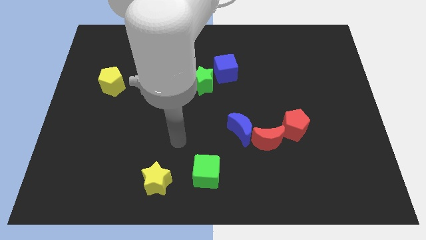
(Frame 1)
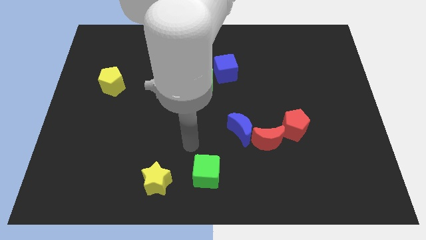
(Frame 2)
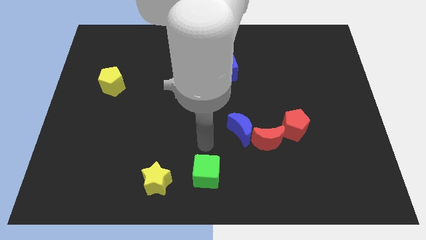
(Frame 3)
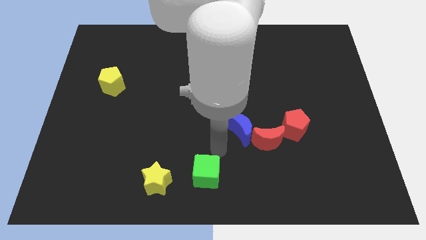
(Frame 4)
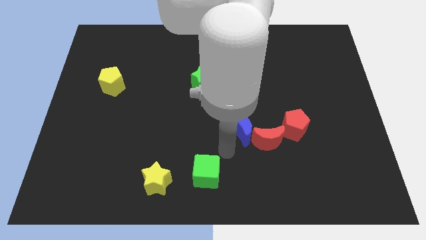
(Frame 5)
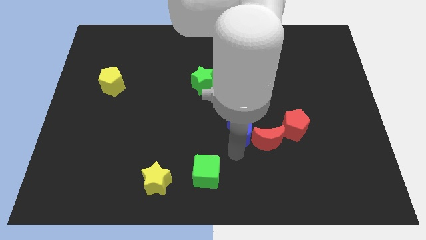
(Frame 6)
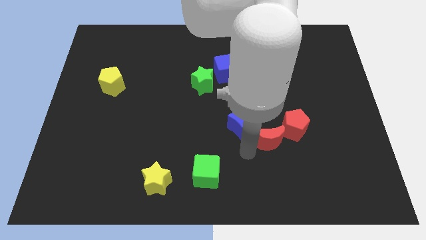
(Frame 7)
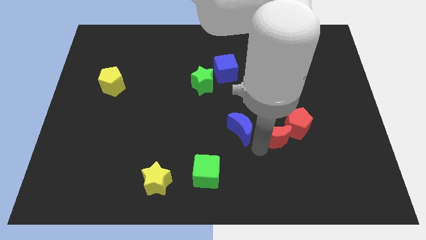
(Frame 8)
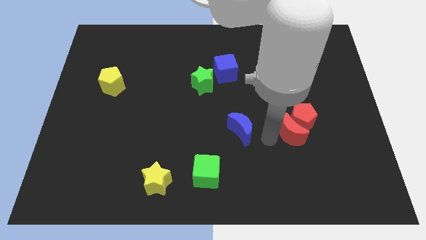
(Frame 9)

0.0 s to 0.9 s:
pull the blue moon apart from the red moon

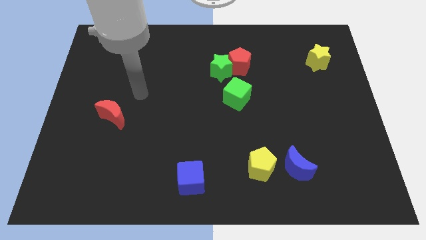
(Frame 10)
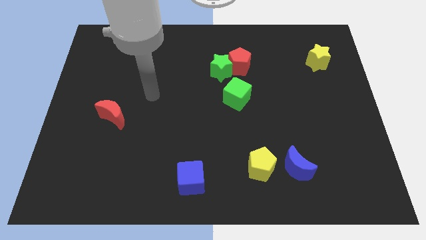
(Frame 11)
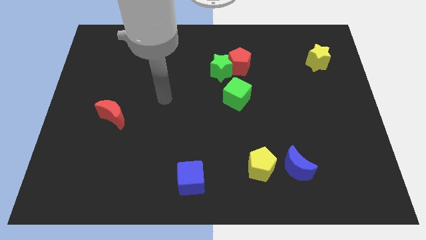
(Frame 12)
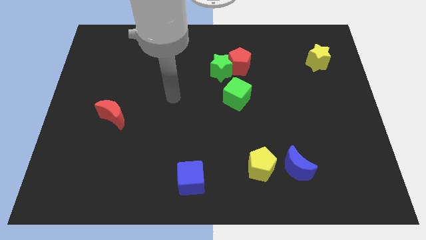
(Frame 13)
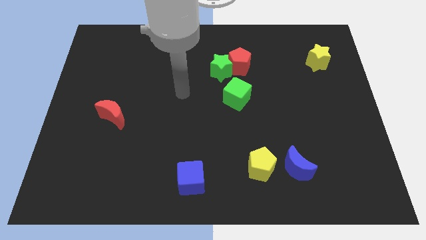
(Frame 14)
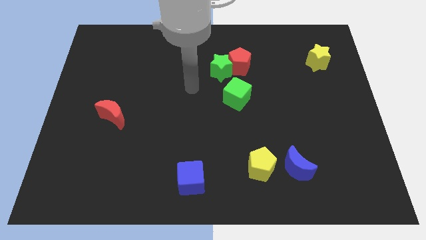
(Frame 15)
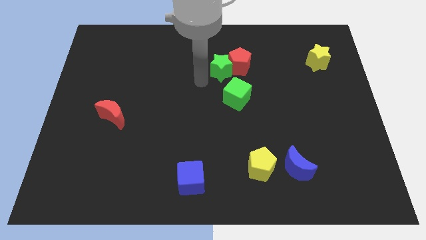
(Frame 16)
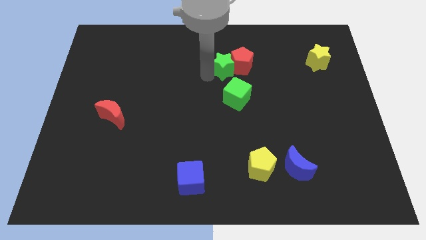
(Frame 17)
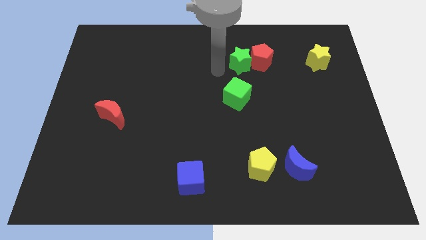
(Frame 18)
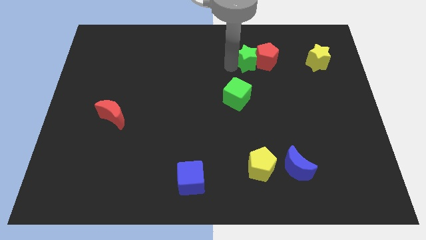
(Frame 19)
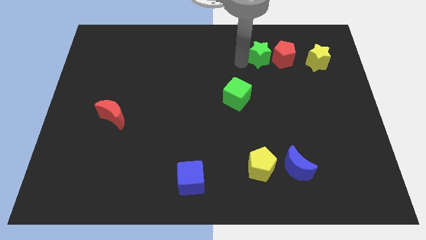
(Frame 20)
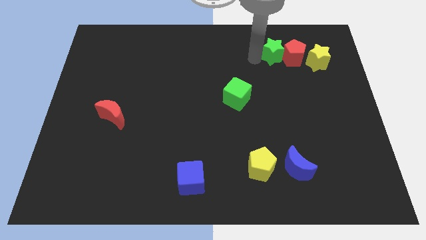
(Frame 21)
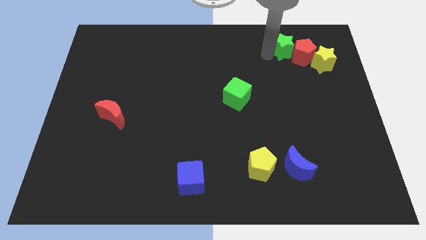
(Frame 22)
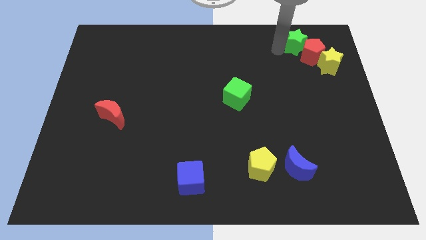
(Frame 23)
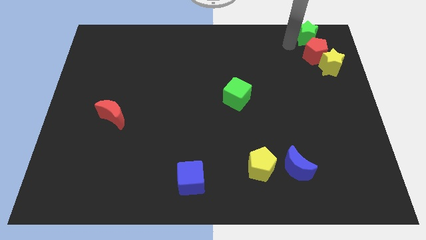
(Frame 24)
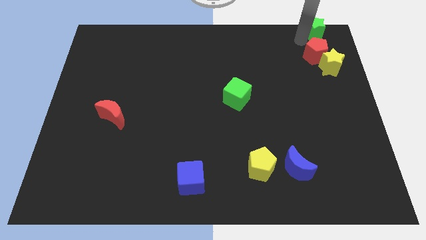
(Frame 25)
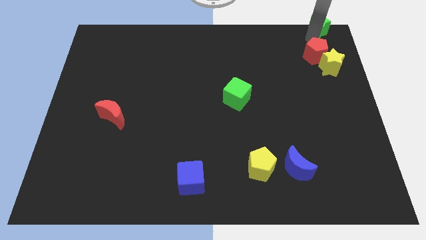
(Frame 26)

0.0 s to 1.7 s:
separate the red pentagon from the green star

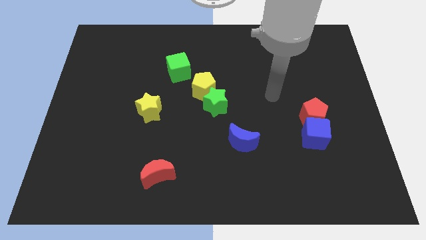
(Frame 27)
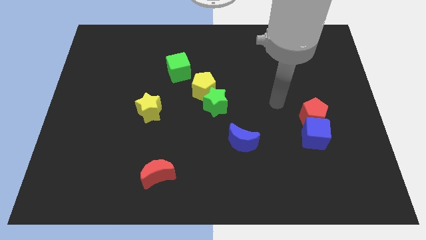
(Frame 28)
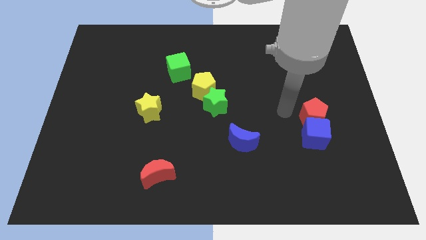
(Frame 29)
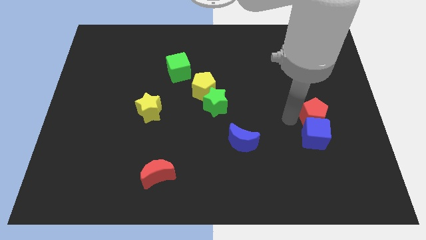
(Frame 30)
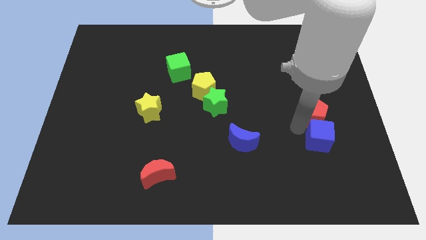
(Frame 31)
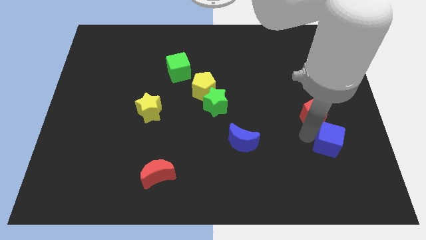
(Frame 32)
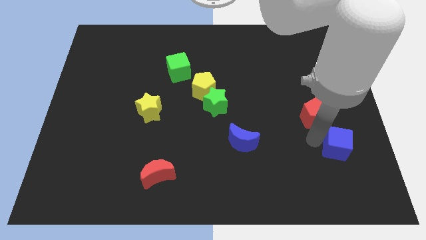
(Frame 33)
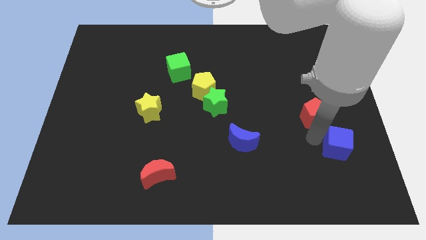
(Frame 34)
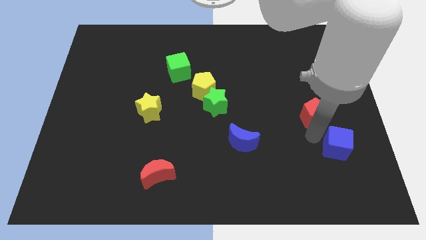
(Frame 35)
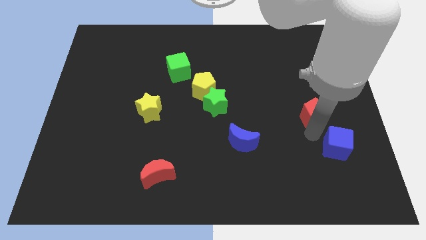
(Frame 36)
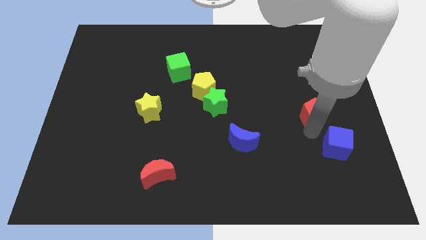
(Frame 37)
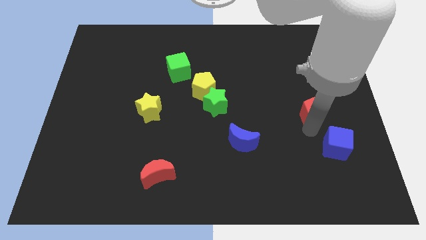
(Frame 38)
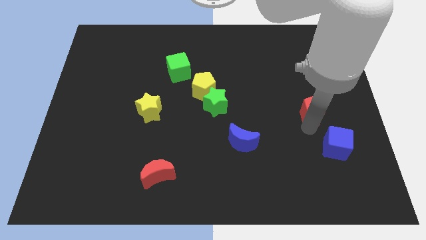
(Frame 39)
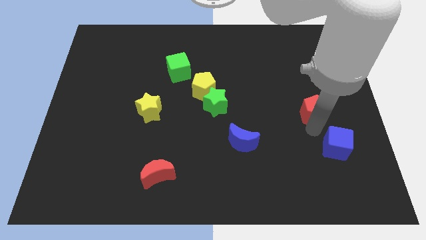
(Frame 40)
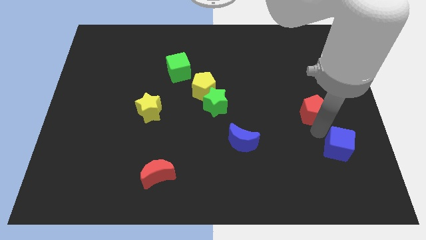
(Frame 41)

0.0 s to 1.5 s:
separate the red pentagon from the blue cube

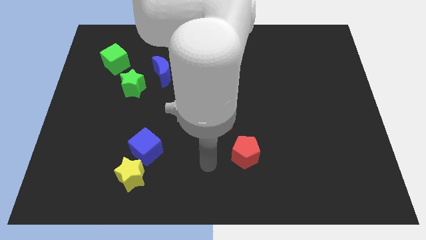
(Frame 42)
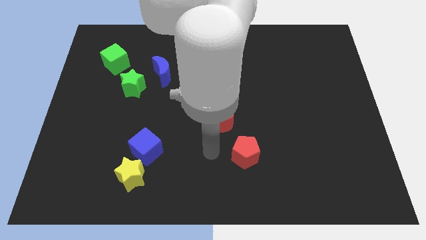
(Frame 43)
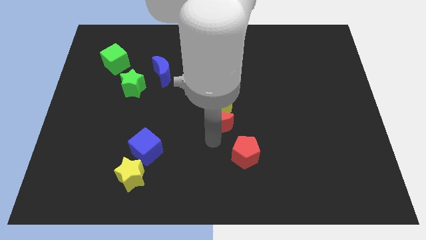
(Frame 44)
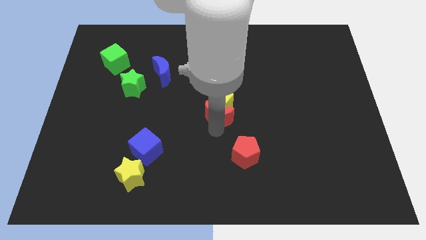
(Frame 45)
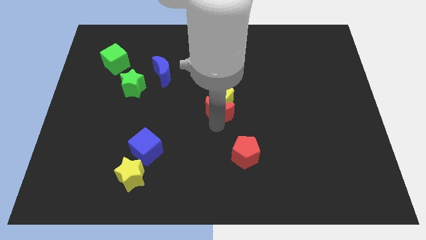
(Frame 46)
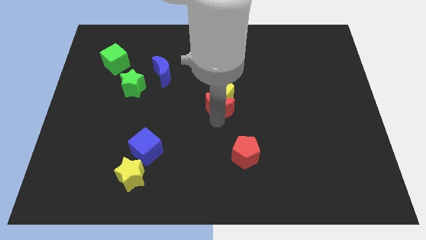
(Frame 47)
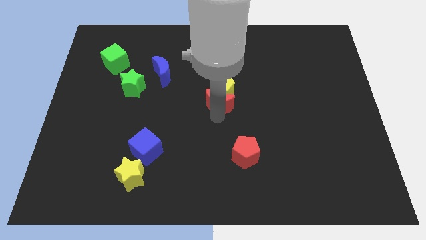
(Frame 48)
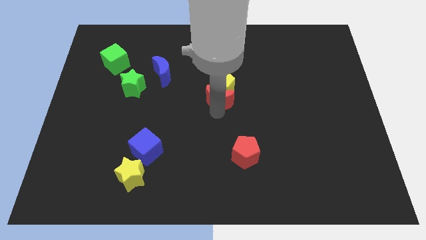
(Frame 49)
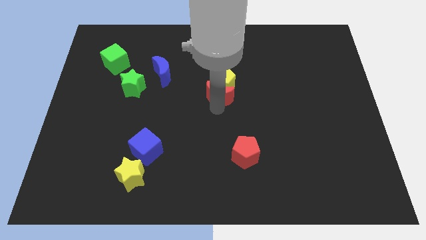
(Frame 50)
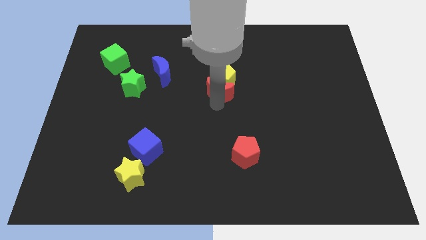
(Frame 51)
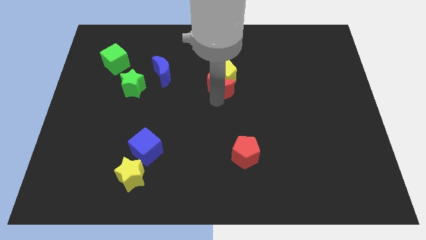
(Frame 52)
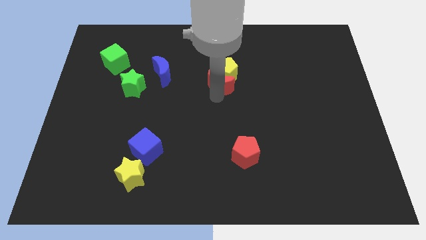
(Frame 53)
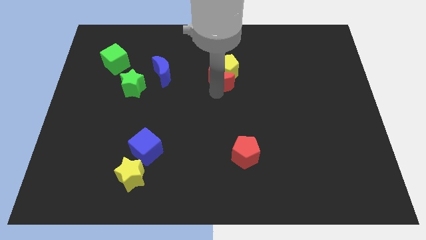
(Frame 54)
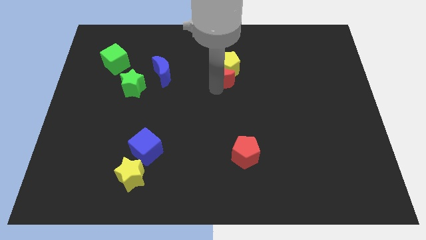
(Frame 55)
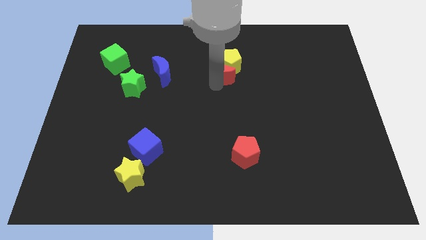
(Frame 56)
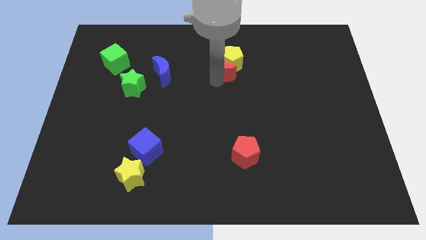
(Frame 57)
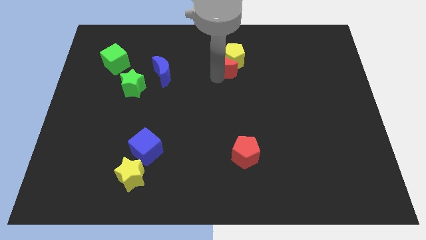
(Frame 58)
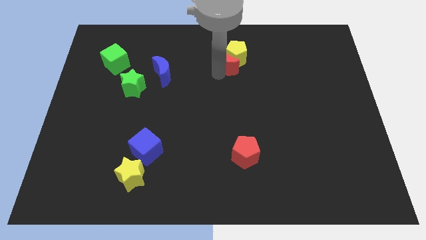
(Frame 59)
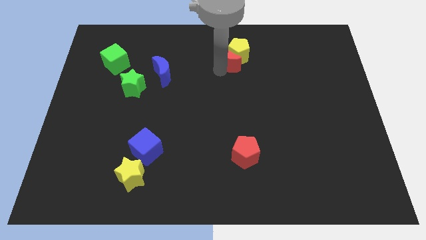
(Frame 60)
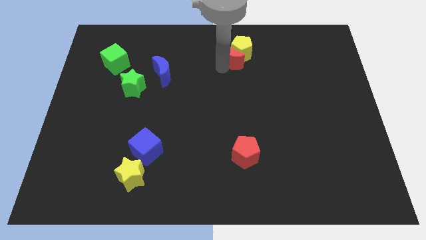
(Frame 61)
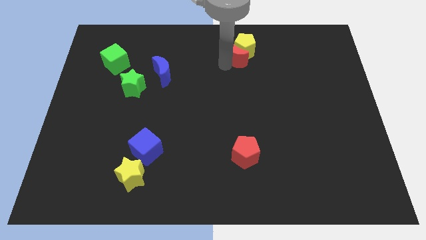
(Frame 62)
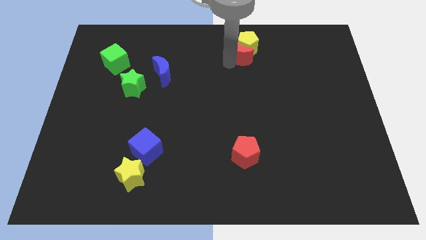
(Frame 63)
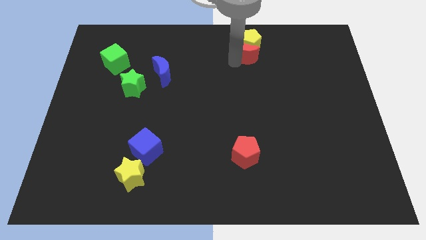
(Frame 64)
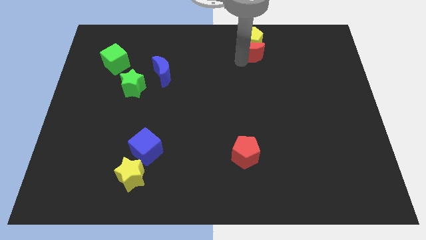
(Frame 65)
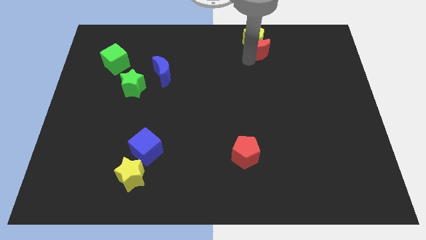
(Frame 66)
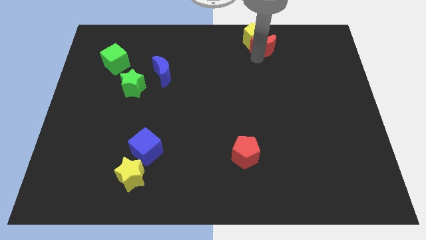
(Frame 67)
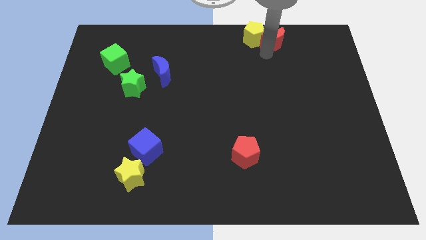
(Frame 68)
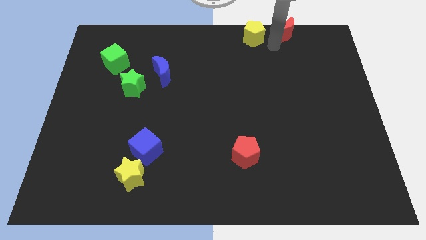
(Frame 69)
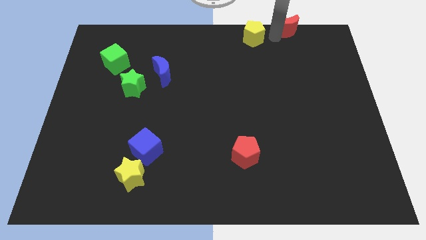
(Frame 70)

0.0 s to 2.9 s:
move the yellow pentagon away from the red moon

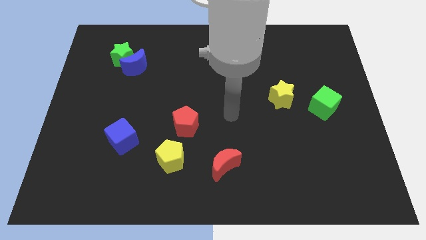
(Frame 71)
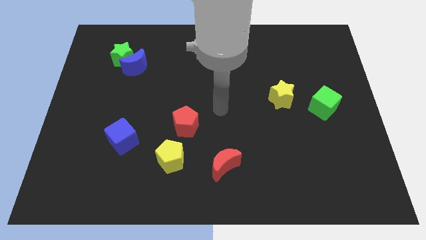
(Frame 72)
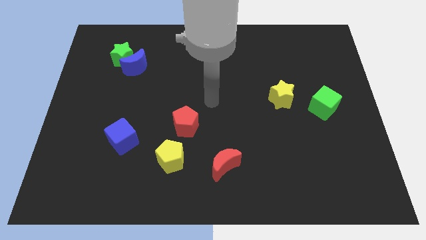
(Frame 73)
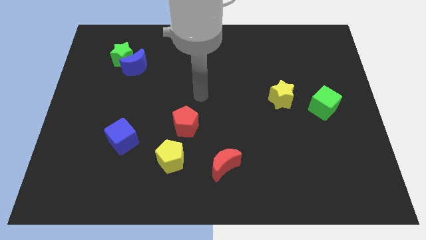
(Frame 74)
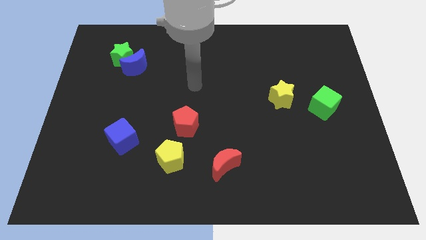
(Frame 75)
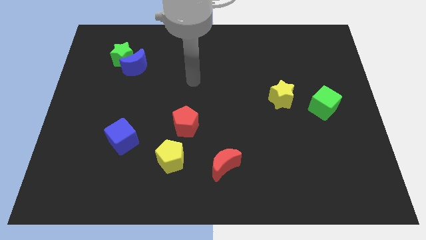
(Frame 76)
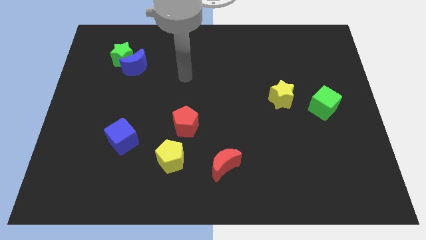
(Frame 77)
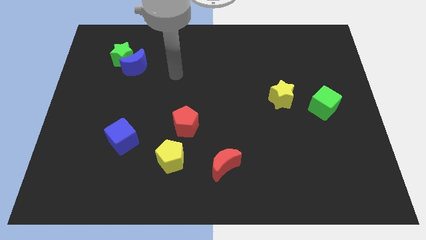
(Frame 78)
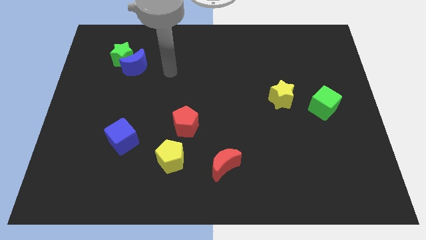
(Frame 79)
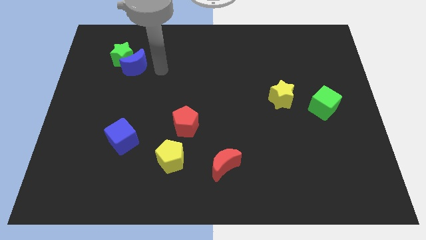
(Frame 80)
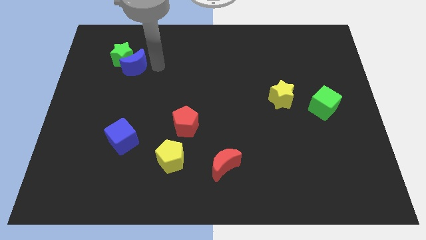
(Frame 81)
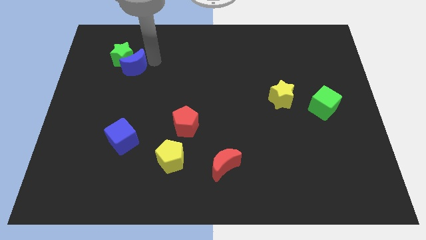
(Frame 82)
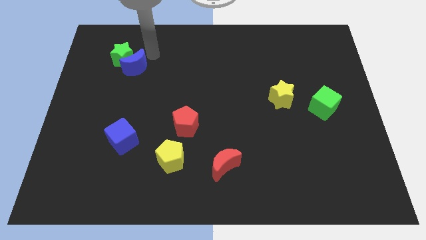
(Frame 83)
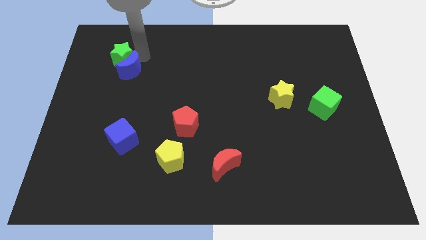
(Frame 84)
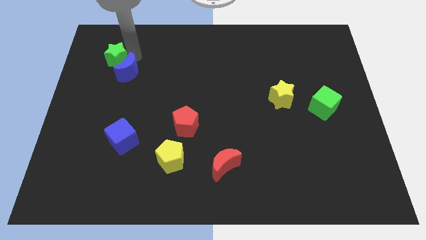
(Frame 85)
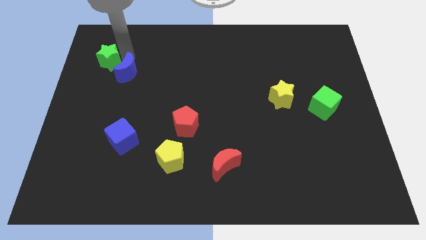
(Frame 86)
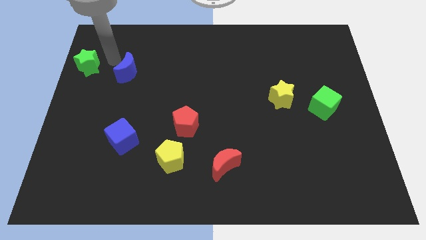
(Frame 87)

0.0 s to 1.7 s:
separate the blue moon from the green star

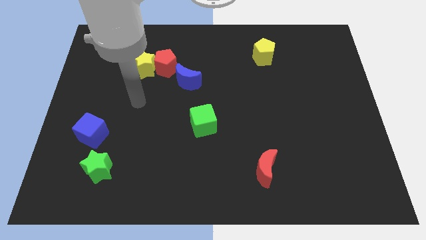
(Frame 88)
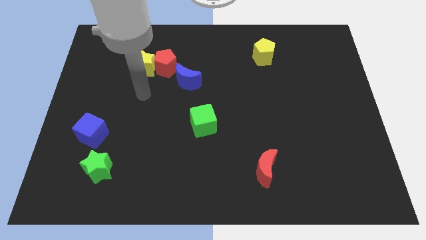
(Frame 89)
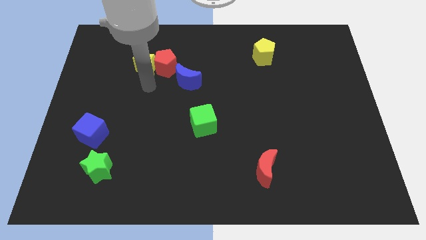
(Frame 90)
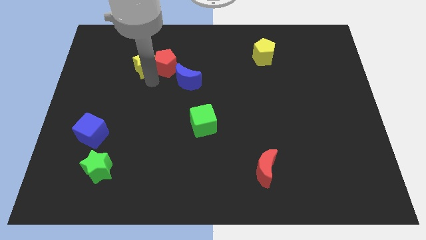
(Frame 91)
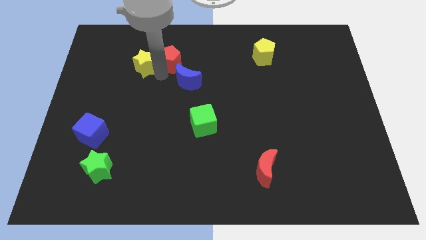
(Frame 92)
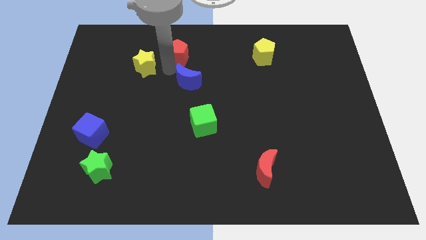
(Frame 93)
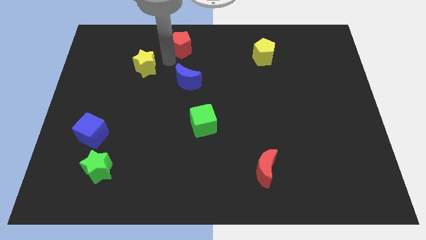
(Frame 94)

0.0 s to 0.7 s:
move the yellow star away from the red pentagon
